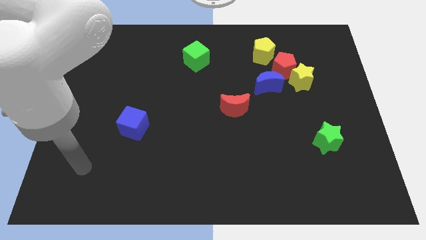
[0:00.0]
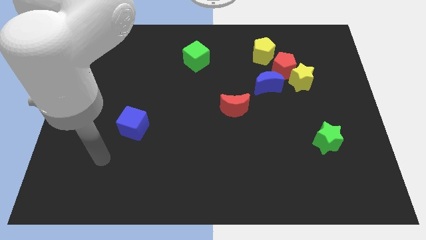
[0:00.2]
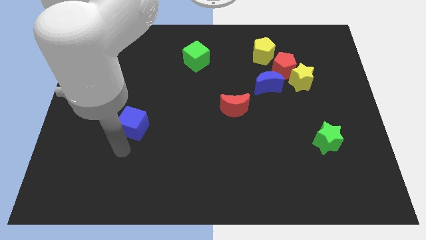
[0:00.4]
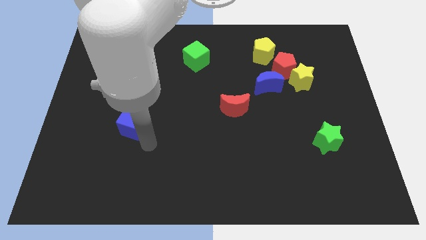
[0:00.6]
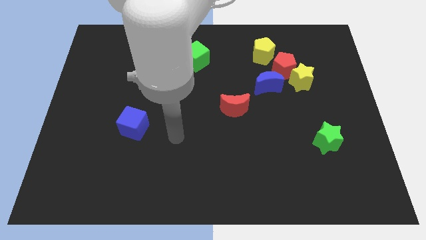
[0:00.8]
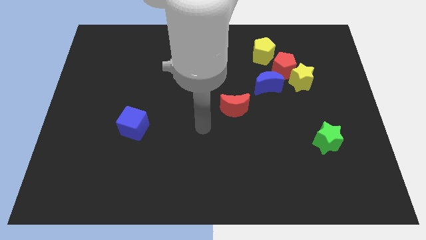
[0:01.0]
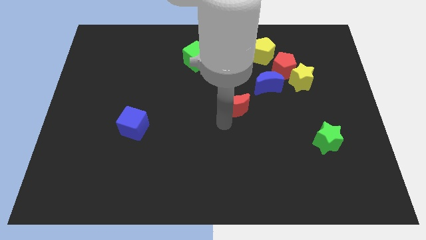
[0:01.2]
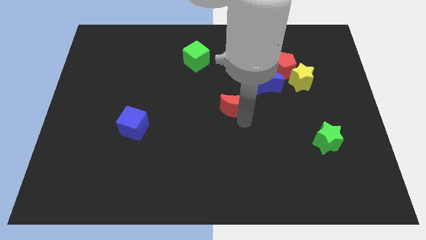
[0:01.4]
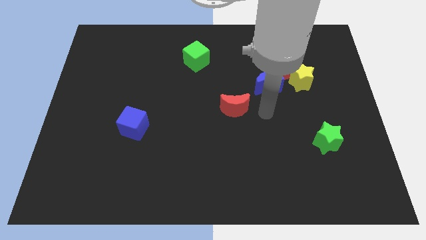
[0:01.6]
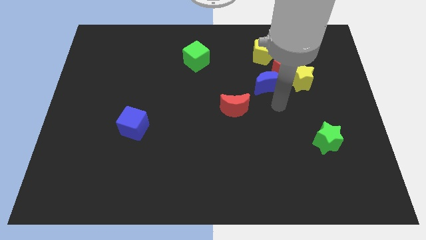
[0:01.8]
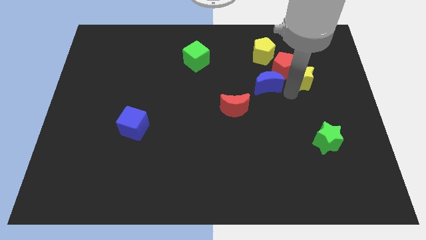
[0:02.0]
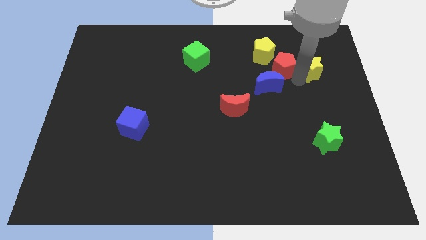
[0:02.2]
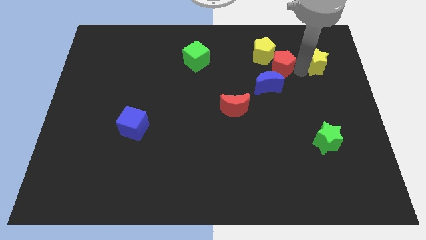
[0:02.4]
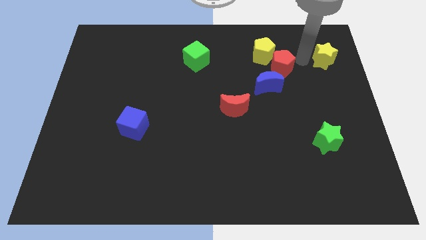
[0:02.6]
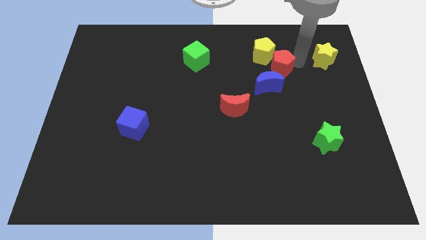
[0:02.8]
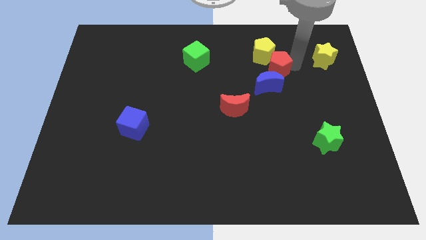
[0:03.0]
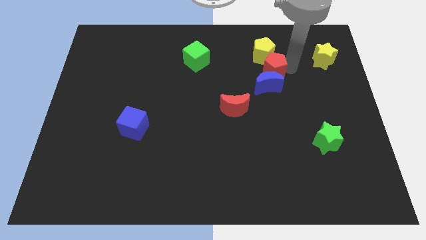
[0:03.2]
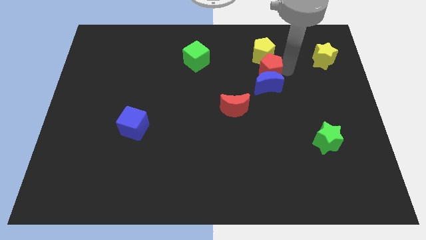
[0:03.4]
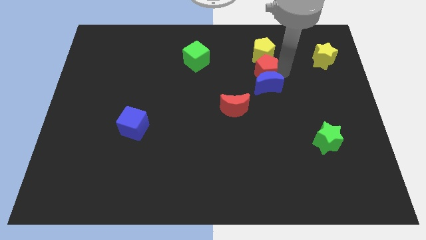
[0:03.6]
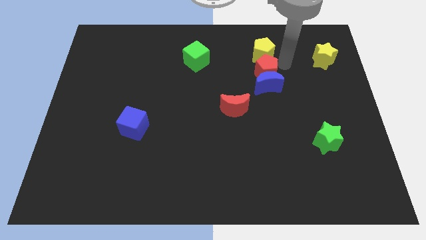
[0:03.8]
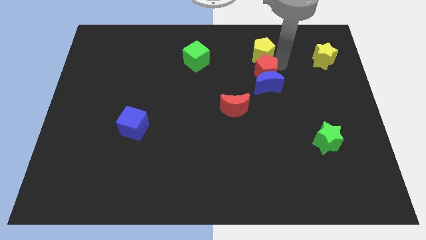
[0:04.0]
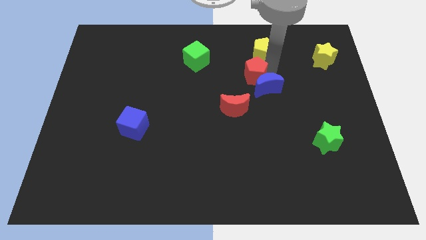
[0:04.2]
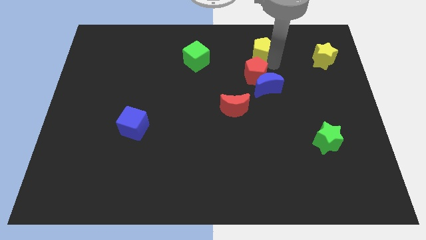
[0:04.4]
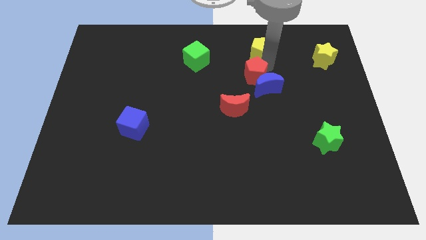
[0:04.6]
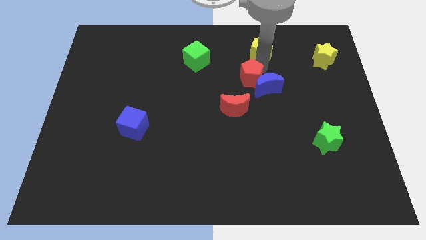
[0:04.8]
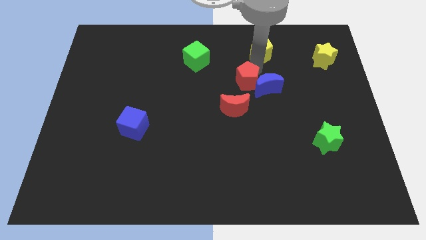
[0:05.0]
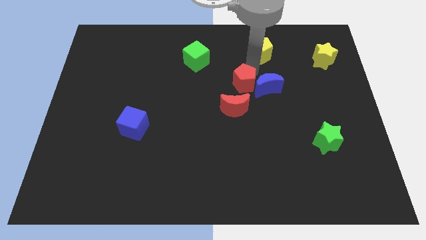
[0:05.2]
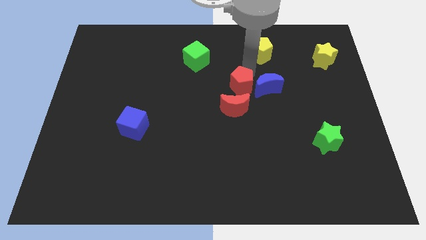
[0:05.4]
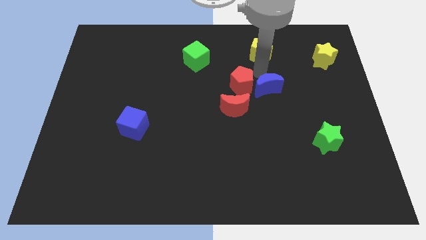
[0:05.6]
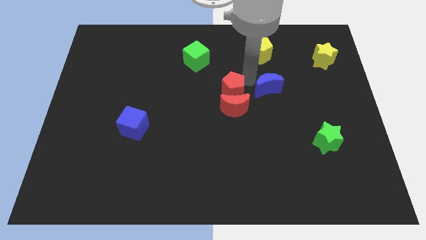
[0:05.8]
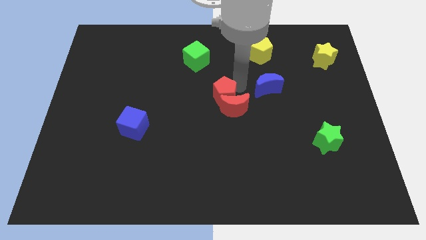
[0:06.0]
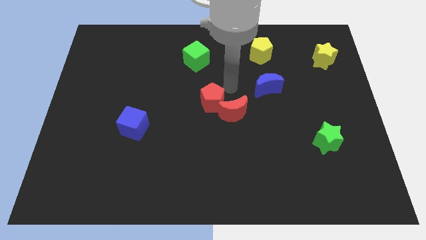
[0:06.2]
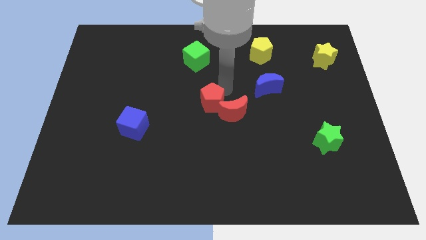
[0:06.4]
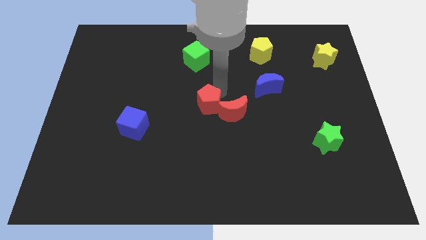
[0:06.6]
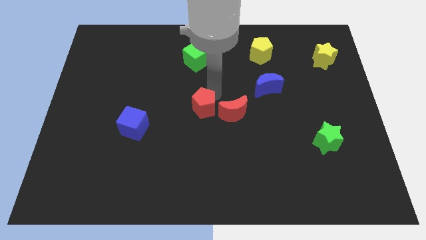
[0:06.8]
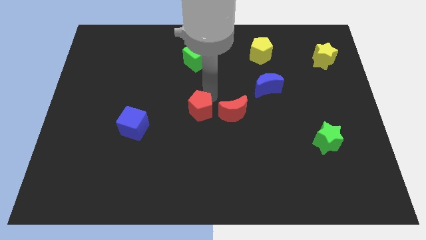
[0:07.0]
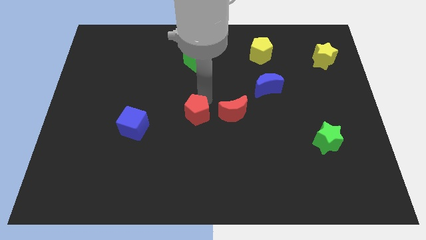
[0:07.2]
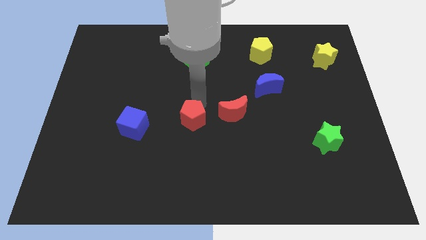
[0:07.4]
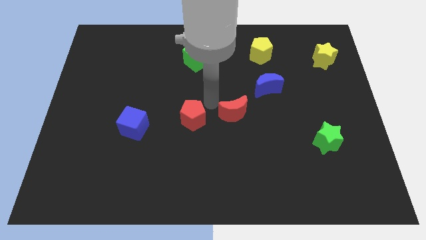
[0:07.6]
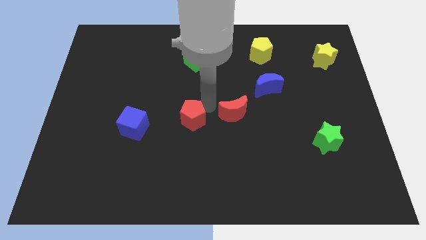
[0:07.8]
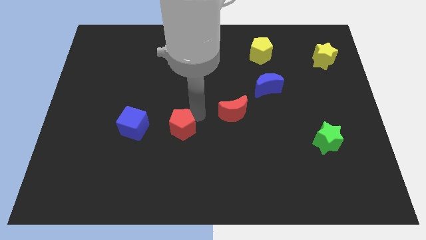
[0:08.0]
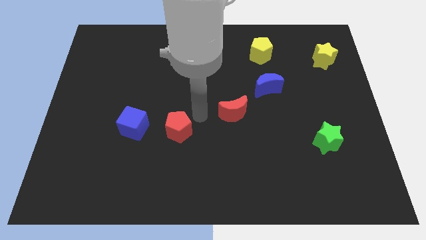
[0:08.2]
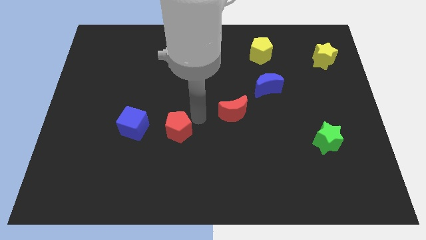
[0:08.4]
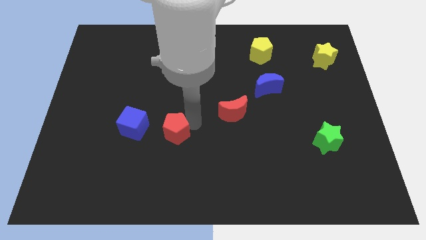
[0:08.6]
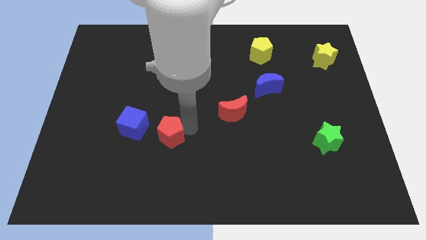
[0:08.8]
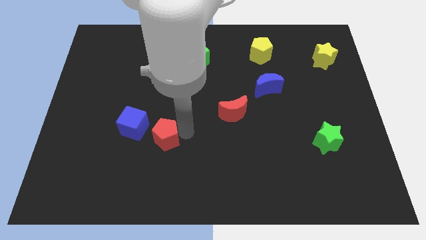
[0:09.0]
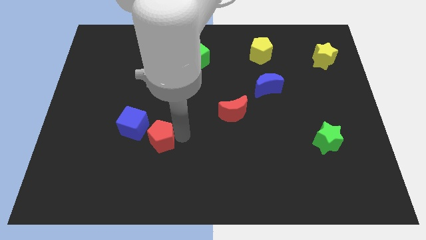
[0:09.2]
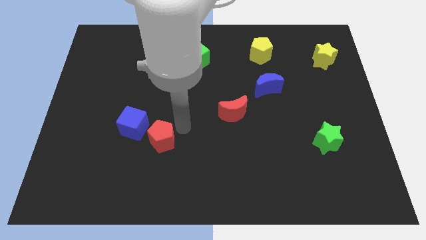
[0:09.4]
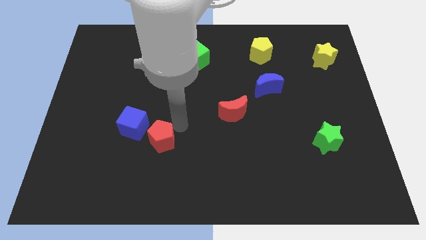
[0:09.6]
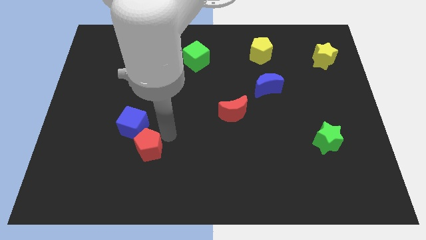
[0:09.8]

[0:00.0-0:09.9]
put the red pentagon below the blue cube

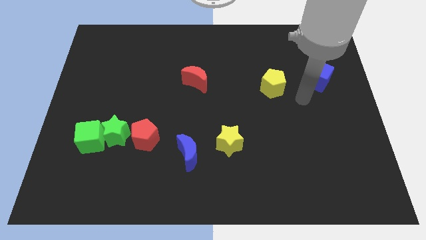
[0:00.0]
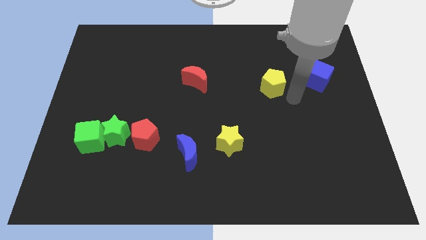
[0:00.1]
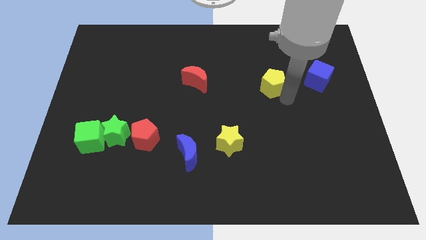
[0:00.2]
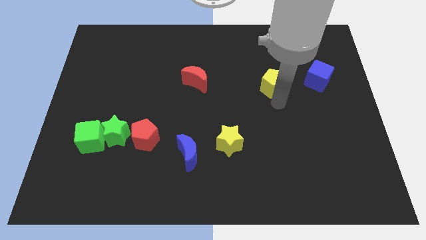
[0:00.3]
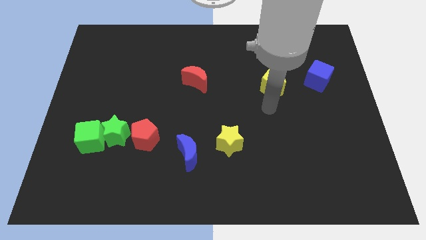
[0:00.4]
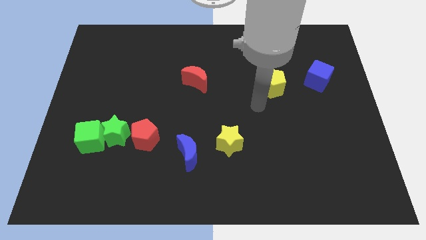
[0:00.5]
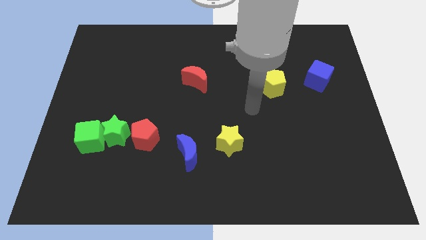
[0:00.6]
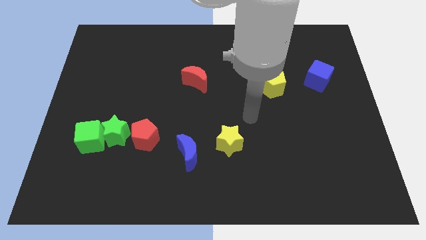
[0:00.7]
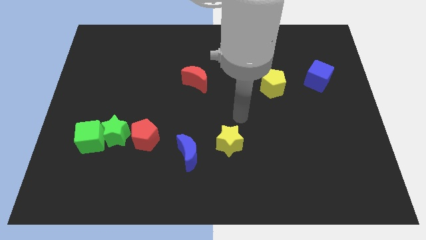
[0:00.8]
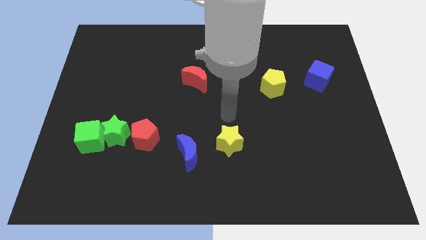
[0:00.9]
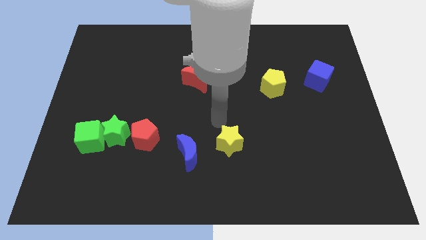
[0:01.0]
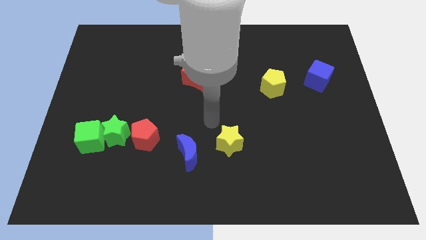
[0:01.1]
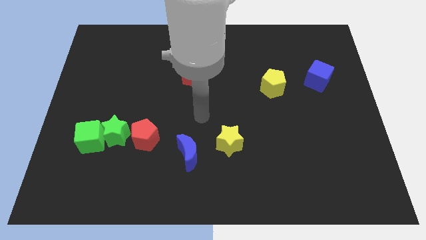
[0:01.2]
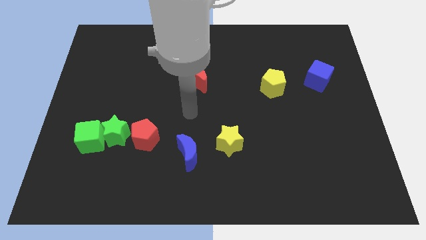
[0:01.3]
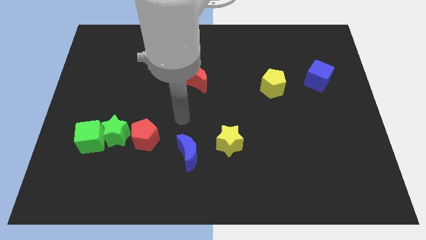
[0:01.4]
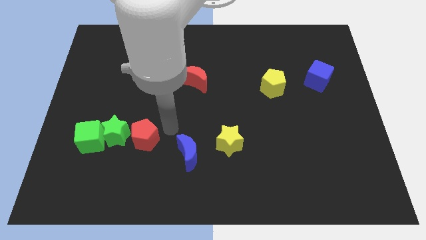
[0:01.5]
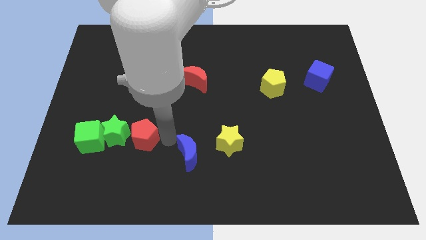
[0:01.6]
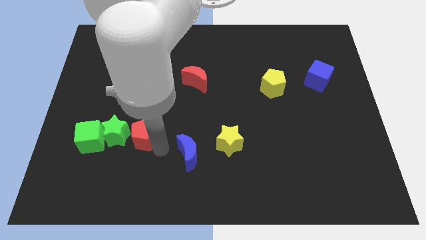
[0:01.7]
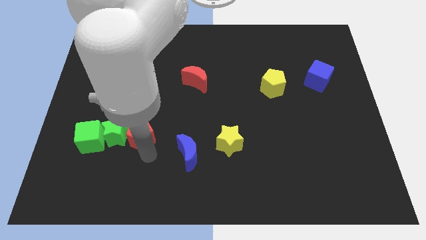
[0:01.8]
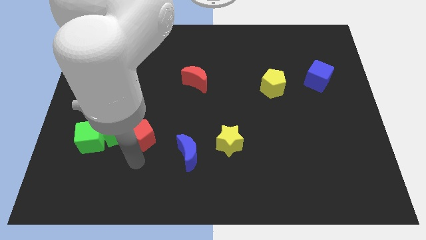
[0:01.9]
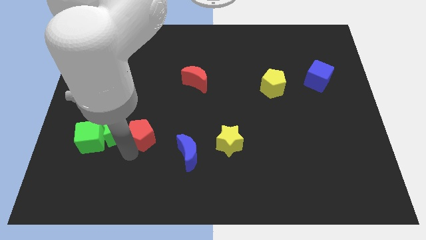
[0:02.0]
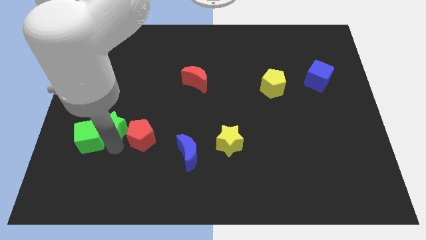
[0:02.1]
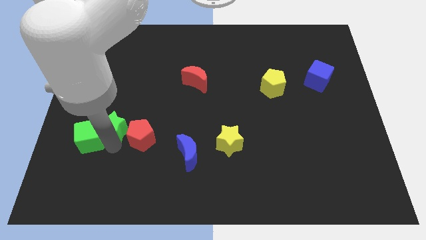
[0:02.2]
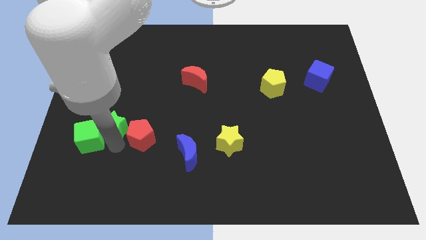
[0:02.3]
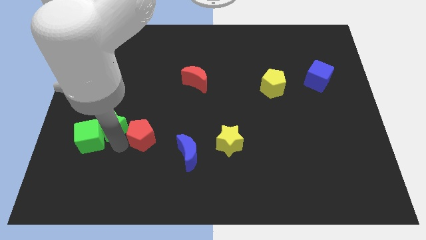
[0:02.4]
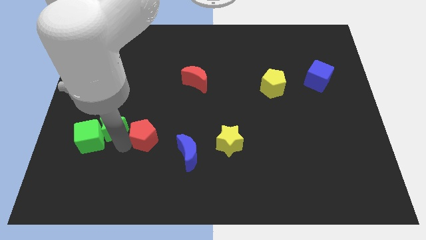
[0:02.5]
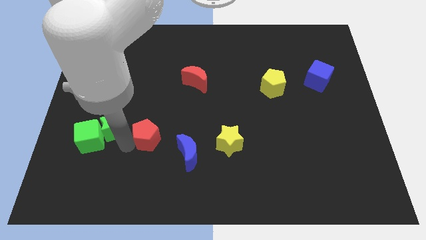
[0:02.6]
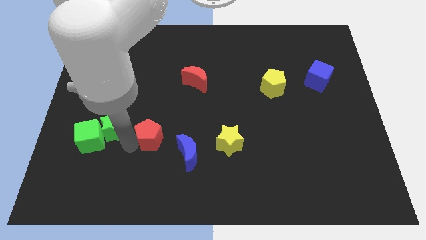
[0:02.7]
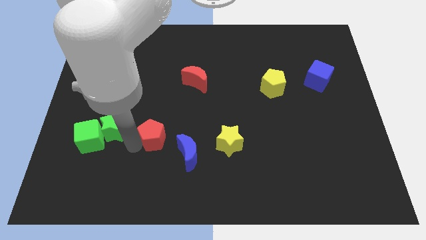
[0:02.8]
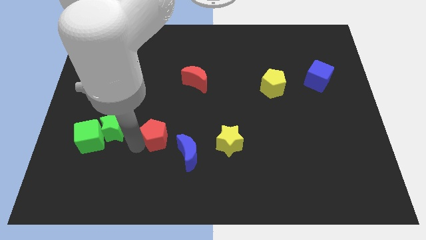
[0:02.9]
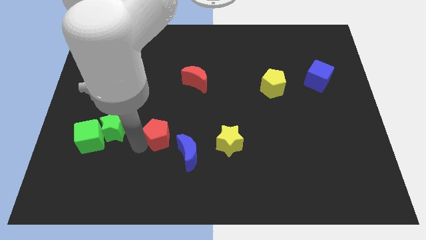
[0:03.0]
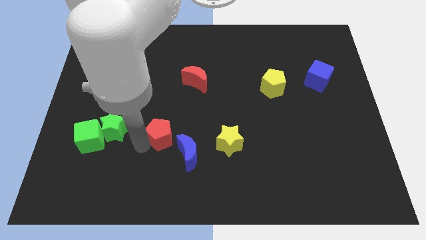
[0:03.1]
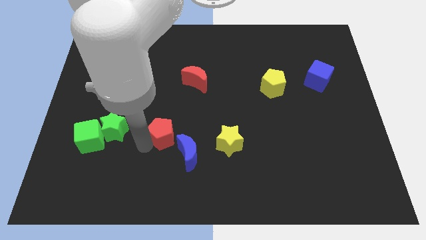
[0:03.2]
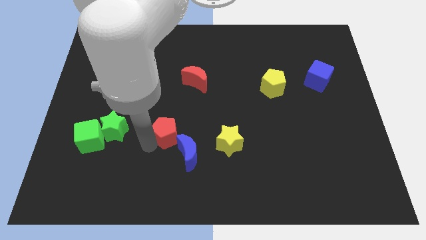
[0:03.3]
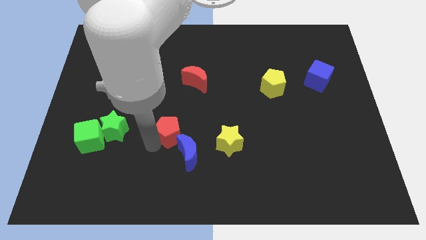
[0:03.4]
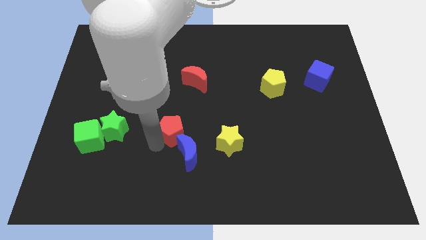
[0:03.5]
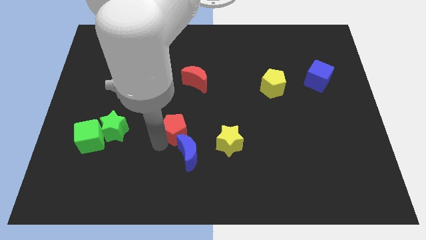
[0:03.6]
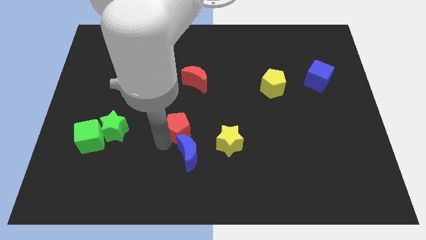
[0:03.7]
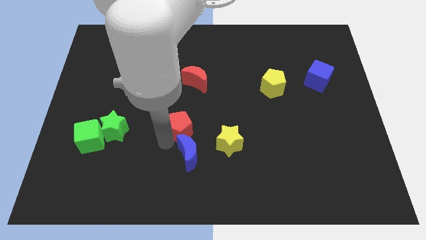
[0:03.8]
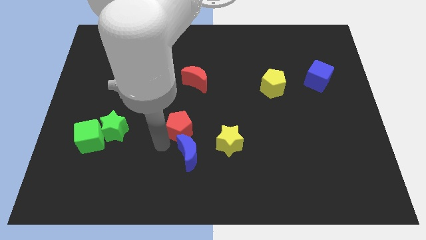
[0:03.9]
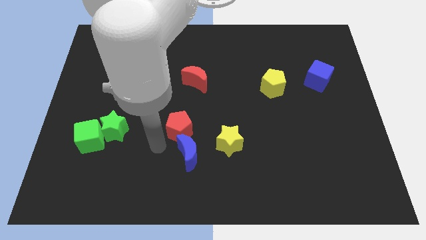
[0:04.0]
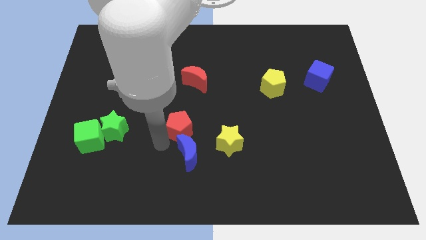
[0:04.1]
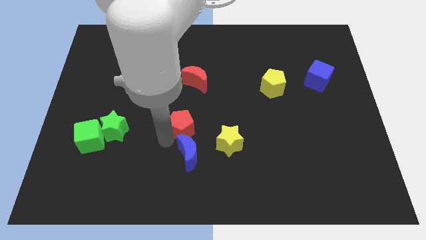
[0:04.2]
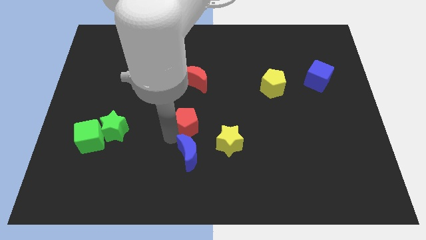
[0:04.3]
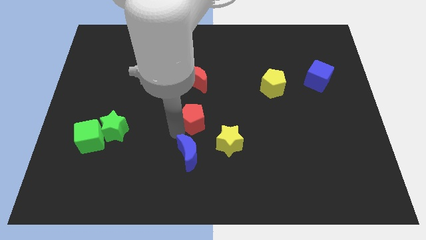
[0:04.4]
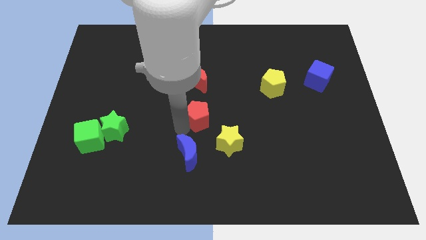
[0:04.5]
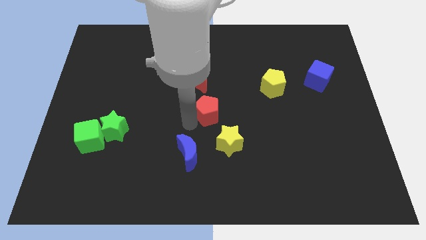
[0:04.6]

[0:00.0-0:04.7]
push the red pentagon above the yellow star
